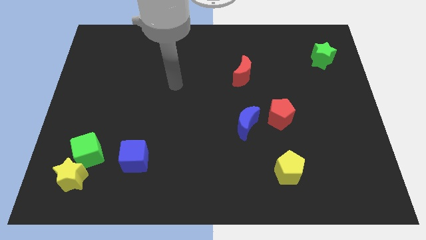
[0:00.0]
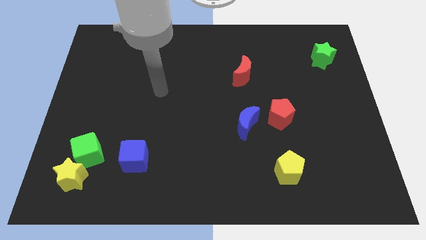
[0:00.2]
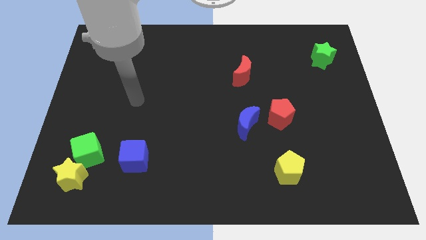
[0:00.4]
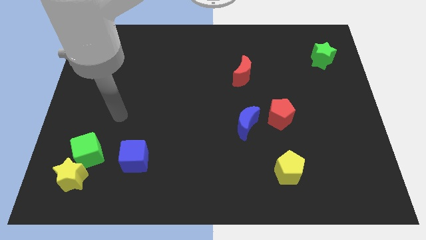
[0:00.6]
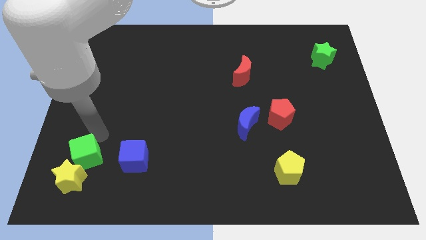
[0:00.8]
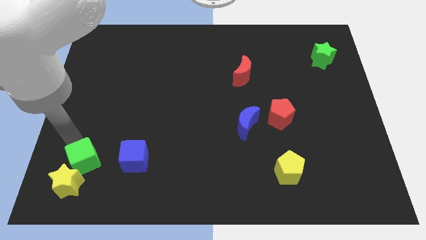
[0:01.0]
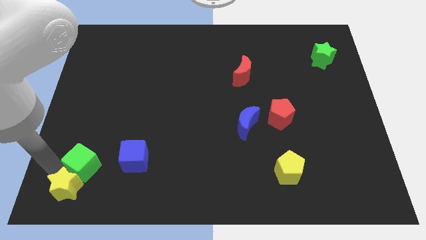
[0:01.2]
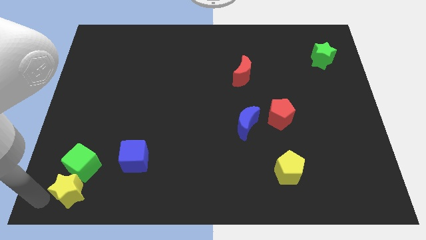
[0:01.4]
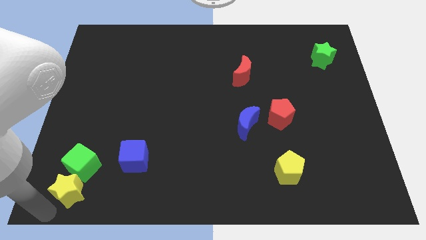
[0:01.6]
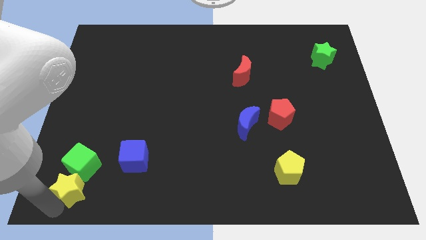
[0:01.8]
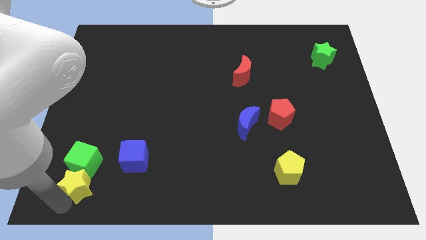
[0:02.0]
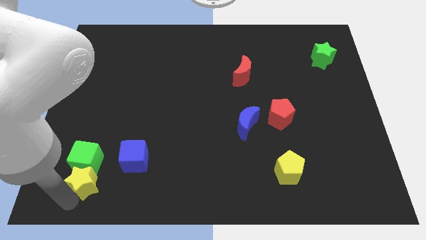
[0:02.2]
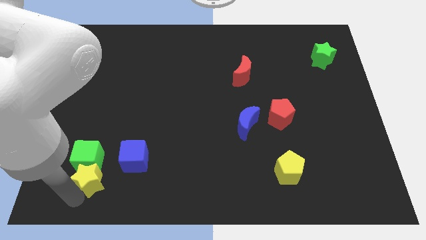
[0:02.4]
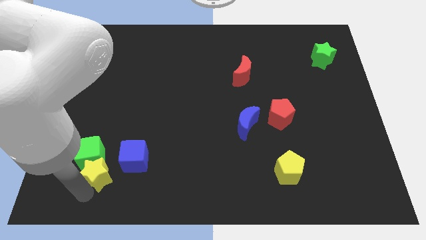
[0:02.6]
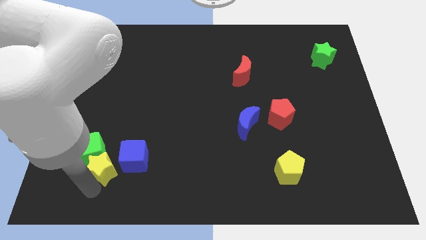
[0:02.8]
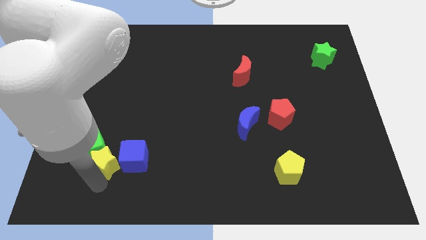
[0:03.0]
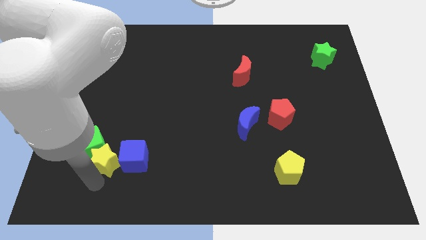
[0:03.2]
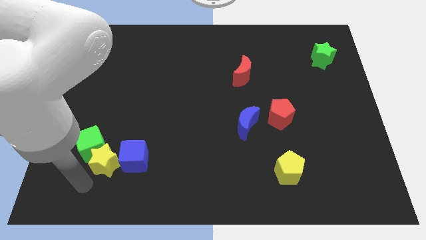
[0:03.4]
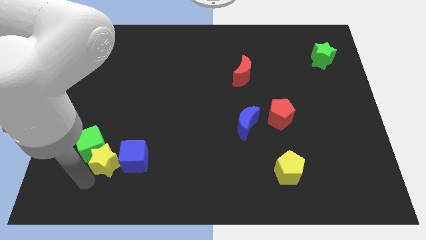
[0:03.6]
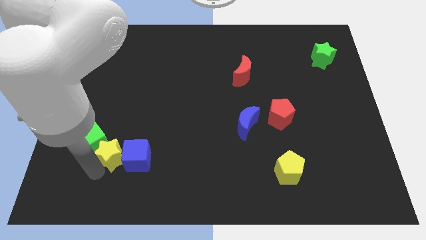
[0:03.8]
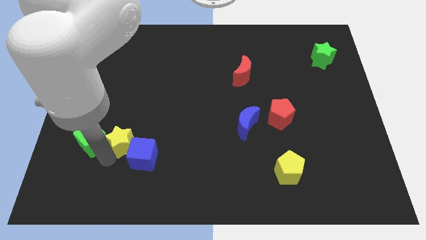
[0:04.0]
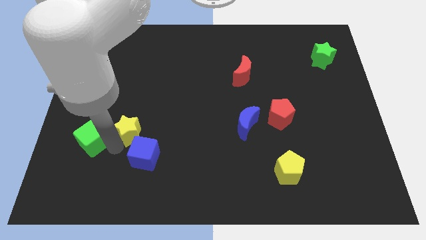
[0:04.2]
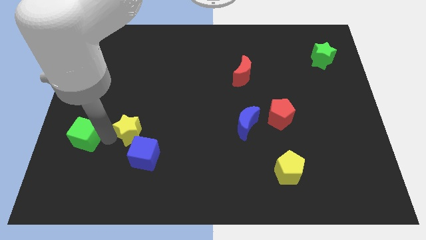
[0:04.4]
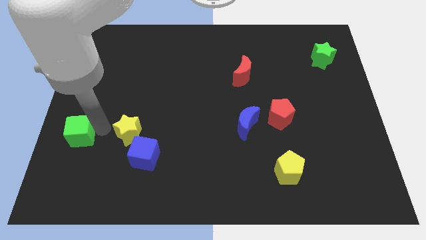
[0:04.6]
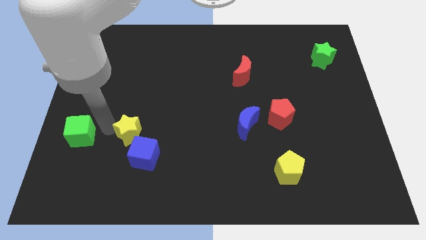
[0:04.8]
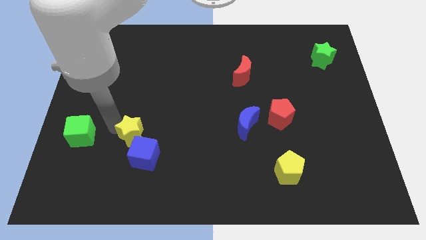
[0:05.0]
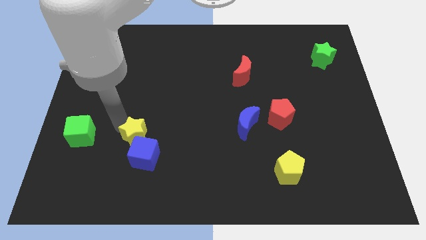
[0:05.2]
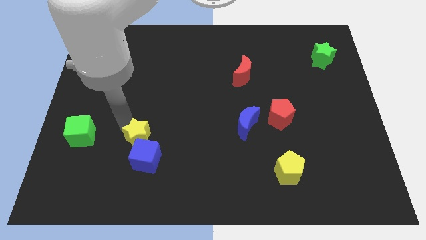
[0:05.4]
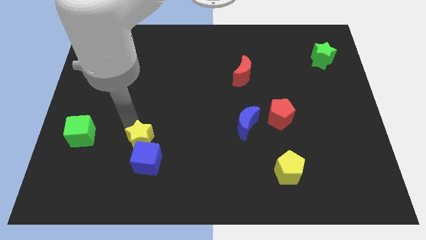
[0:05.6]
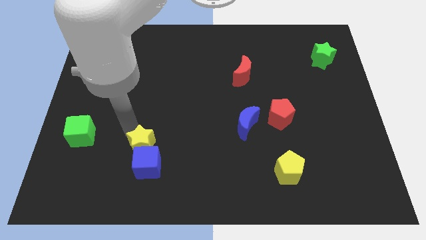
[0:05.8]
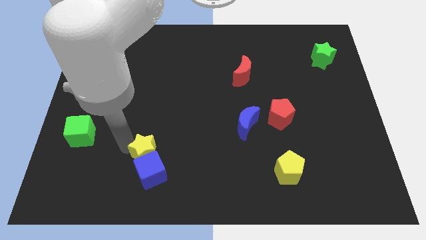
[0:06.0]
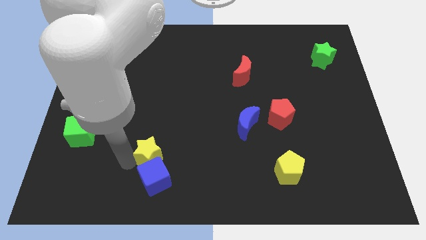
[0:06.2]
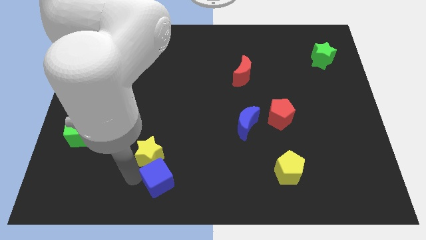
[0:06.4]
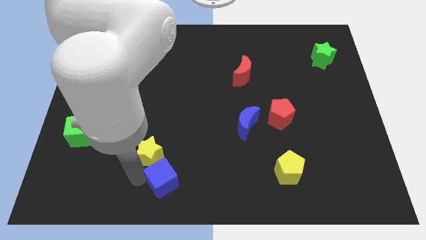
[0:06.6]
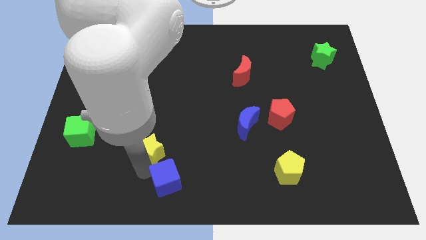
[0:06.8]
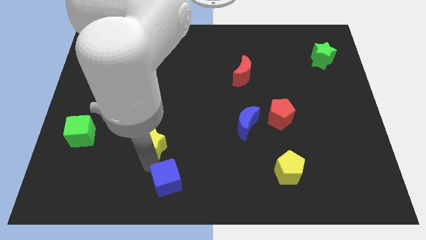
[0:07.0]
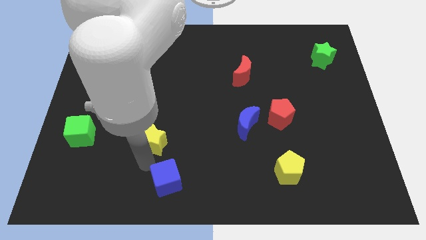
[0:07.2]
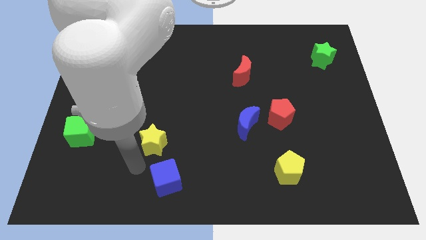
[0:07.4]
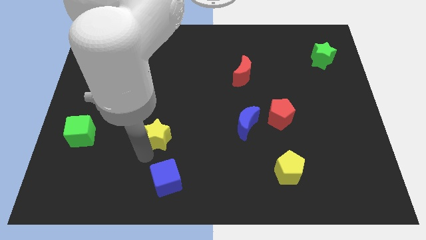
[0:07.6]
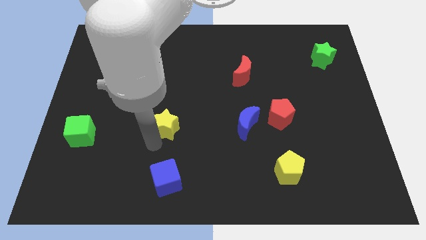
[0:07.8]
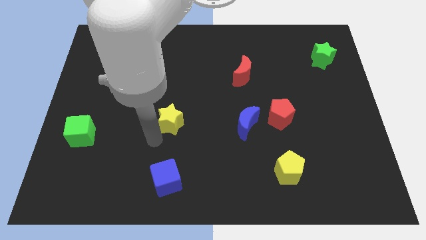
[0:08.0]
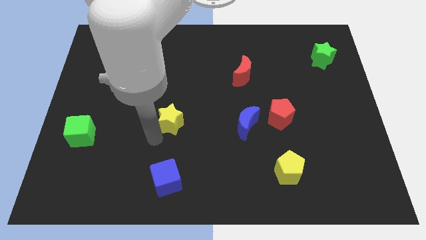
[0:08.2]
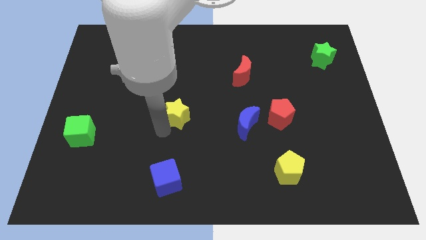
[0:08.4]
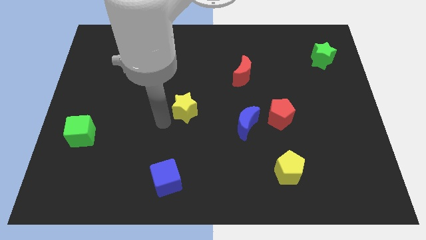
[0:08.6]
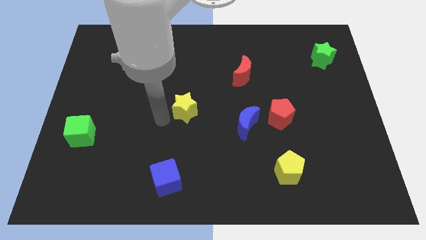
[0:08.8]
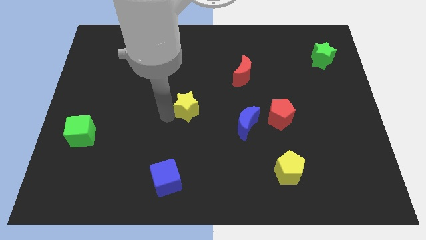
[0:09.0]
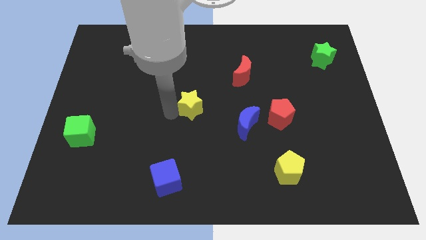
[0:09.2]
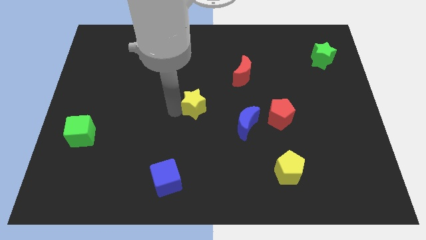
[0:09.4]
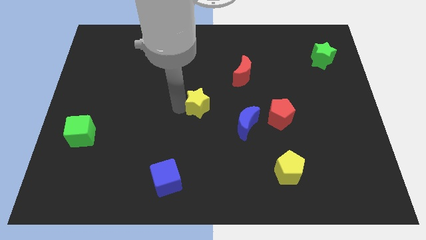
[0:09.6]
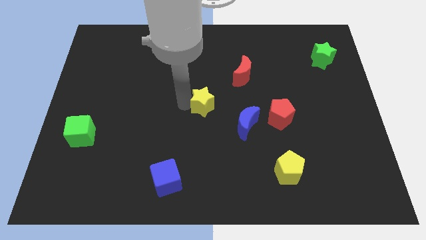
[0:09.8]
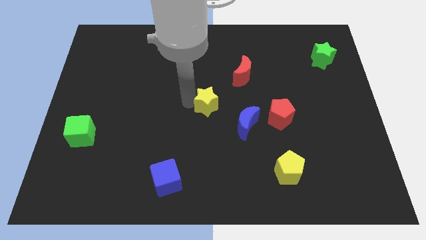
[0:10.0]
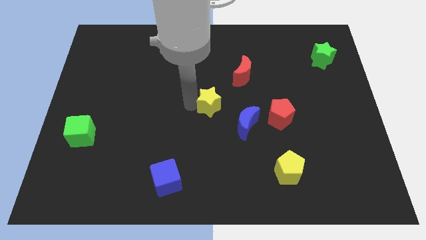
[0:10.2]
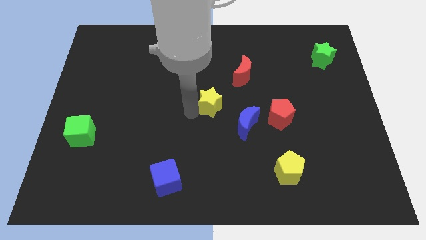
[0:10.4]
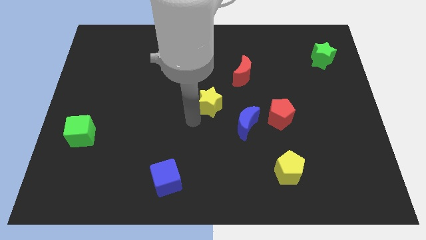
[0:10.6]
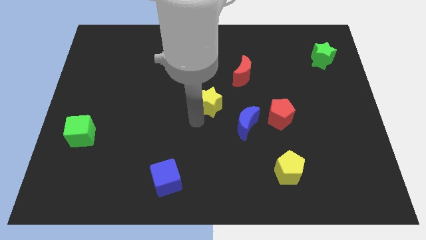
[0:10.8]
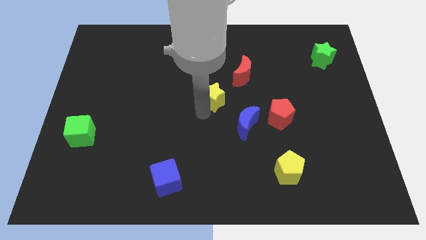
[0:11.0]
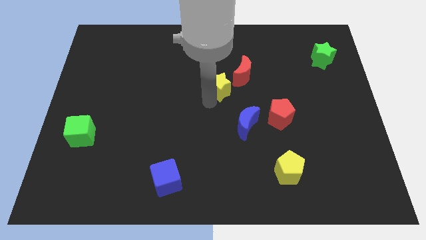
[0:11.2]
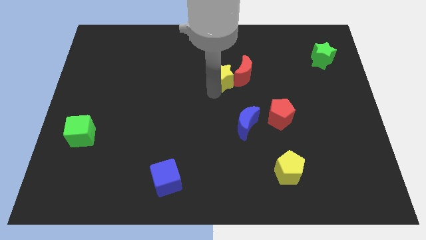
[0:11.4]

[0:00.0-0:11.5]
put the yellow star next to the red moon

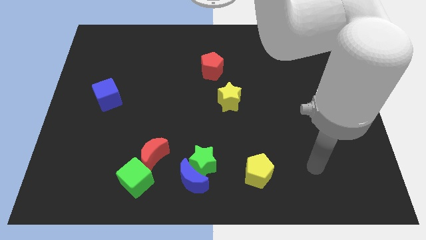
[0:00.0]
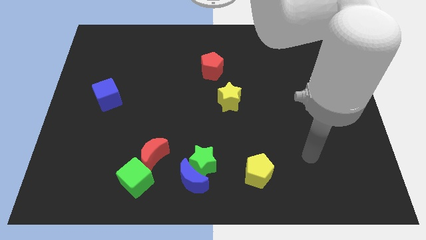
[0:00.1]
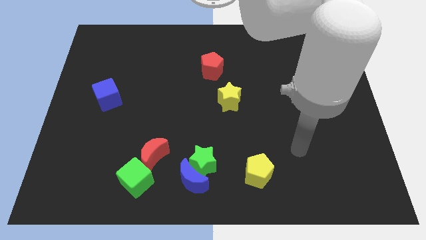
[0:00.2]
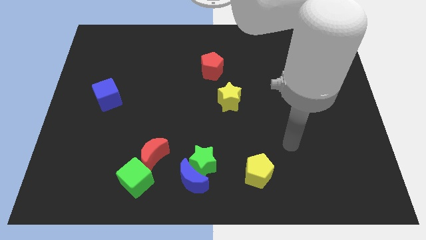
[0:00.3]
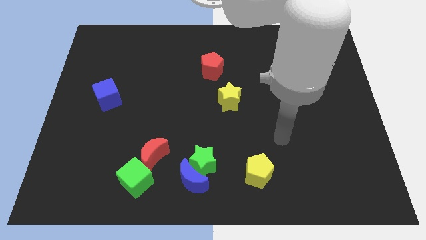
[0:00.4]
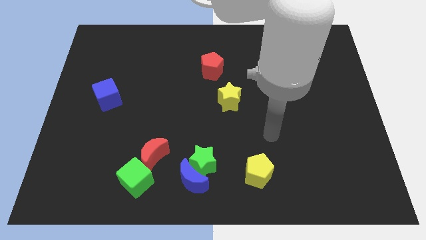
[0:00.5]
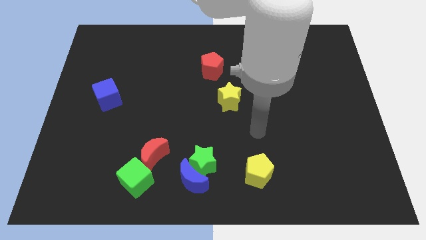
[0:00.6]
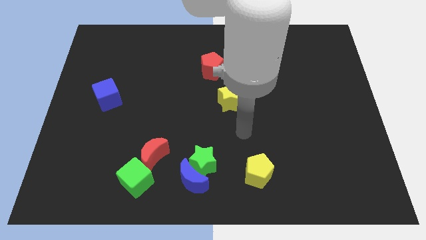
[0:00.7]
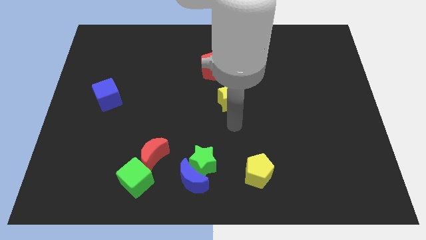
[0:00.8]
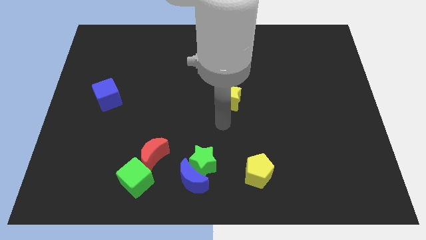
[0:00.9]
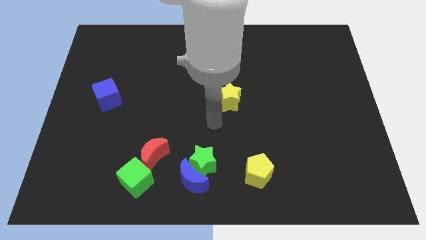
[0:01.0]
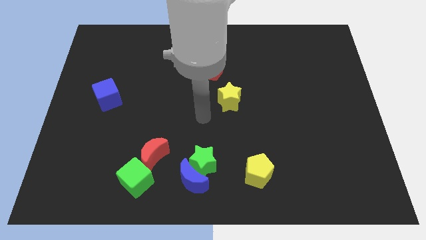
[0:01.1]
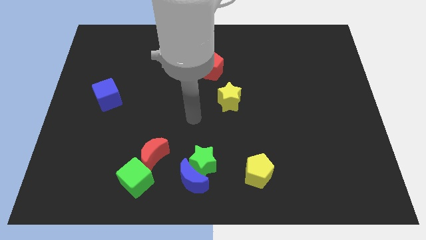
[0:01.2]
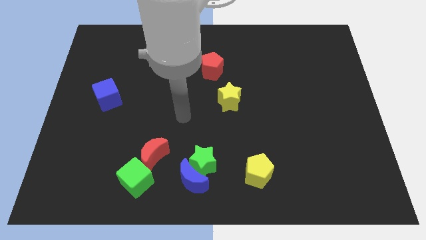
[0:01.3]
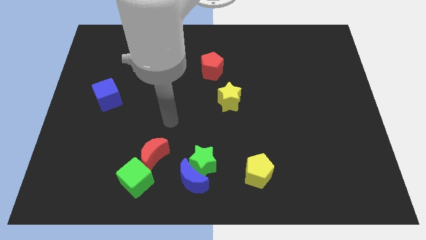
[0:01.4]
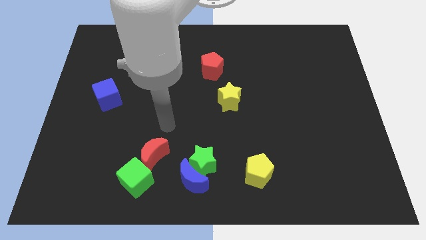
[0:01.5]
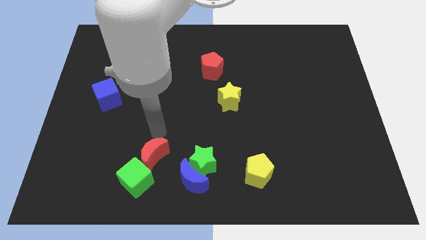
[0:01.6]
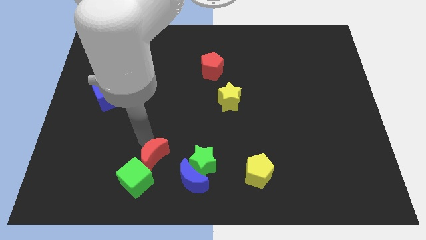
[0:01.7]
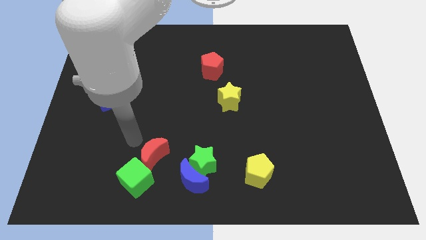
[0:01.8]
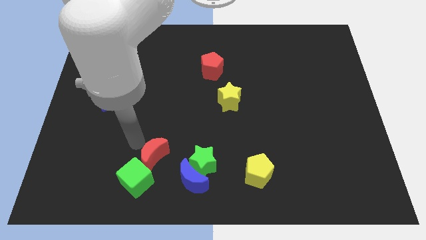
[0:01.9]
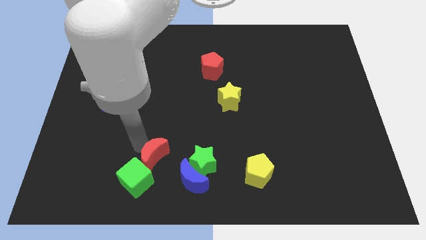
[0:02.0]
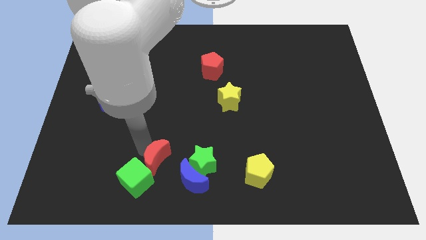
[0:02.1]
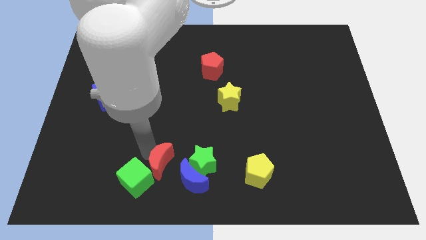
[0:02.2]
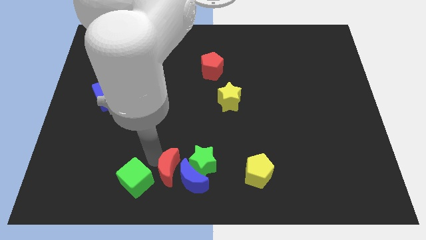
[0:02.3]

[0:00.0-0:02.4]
move the red moon next to the blue moon
